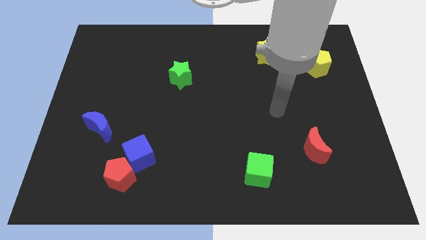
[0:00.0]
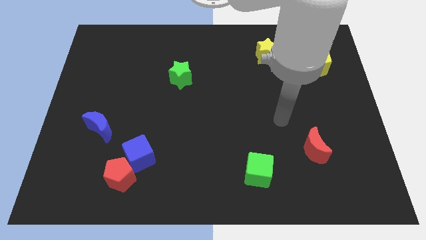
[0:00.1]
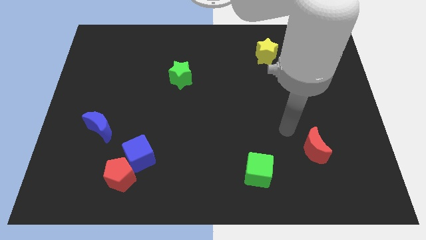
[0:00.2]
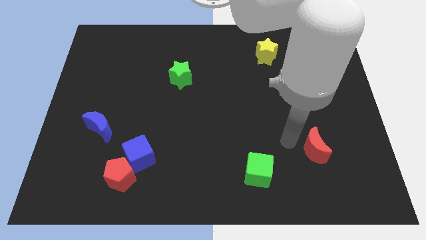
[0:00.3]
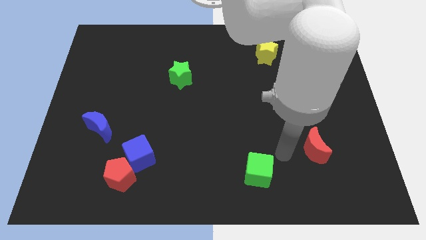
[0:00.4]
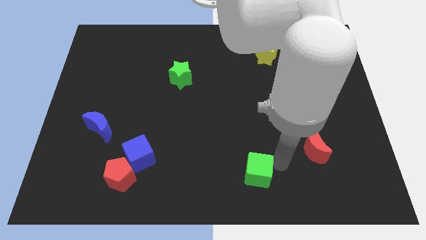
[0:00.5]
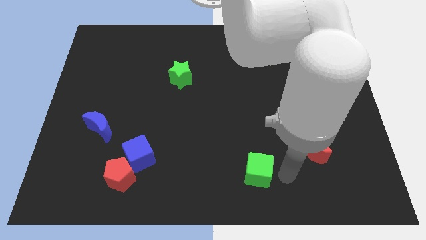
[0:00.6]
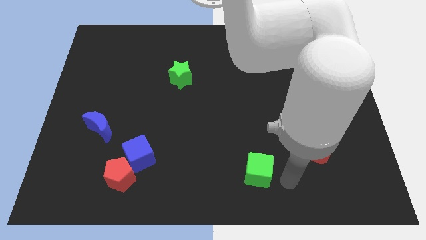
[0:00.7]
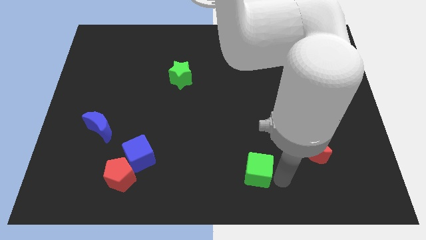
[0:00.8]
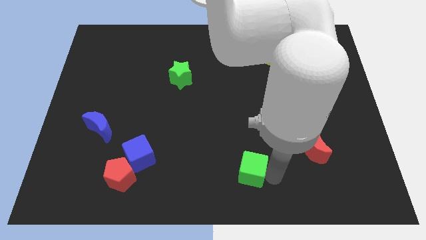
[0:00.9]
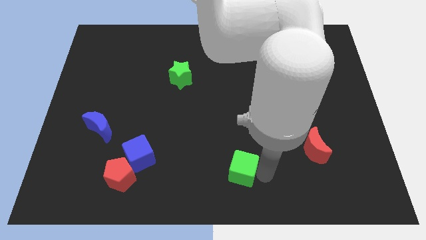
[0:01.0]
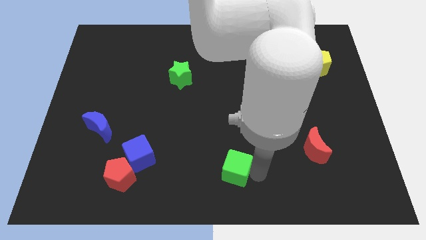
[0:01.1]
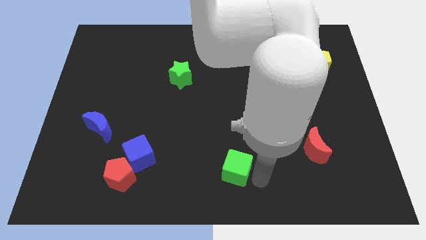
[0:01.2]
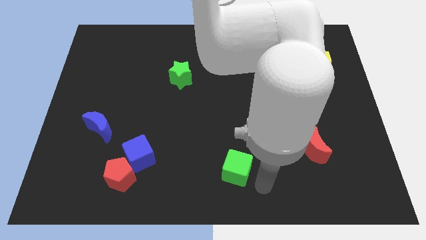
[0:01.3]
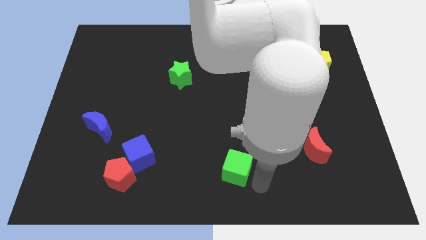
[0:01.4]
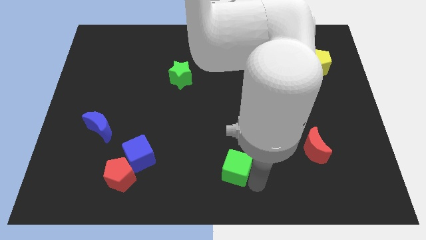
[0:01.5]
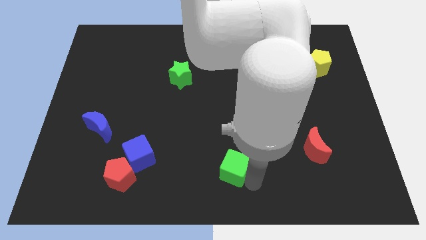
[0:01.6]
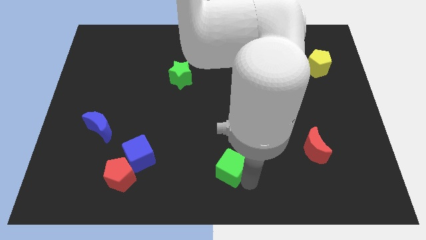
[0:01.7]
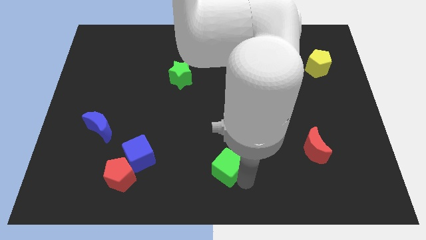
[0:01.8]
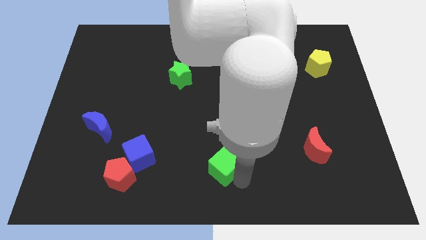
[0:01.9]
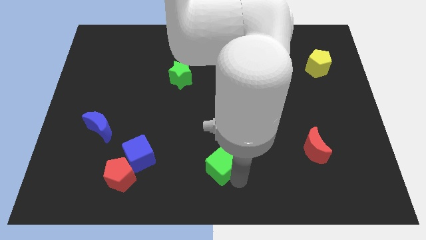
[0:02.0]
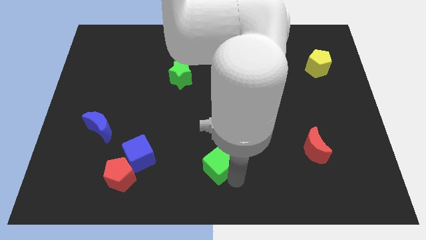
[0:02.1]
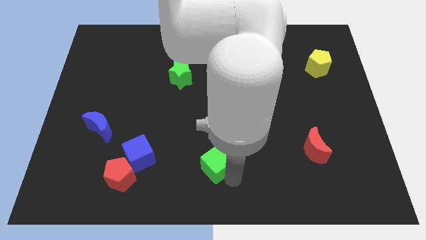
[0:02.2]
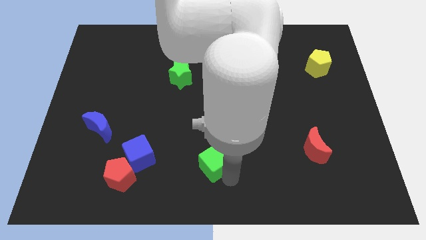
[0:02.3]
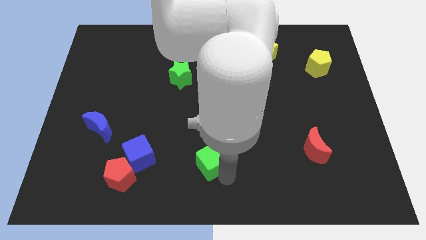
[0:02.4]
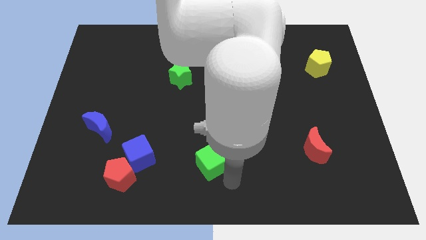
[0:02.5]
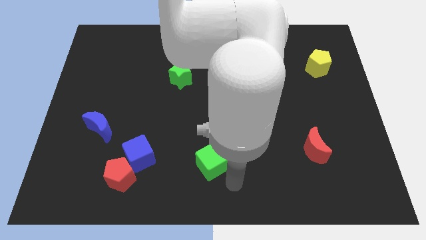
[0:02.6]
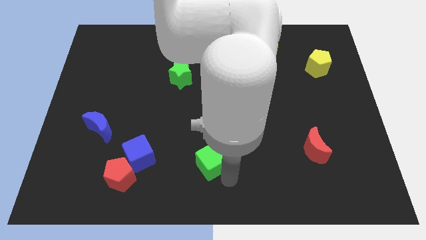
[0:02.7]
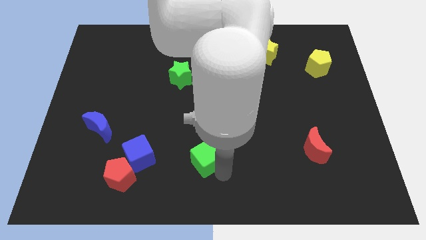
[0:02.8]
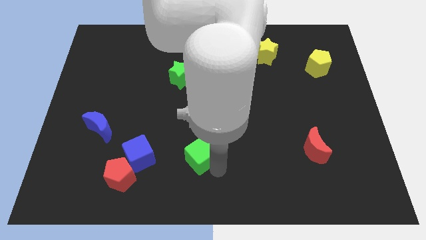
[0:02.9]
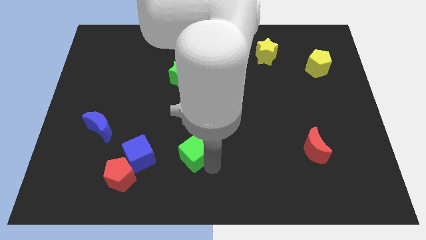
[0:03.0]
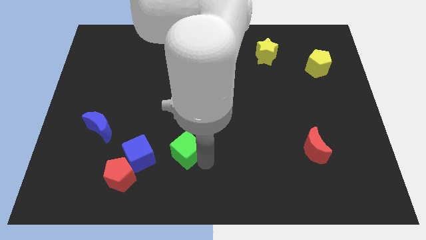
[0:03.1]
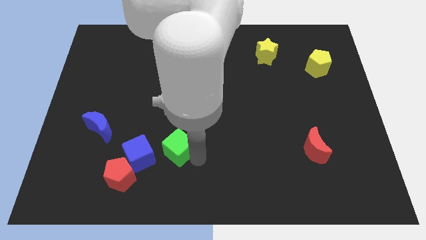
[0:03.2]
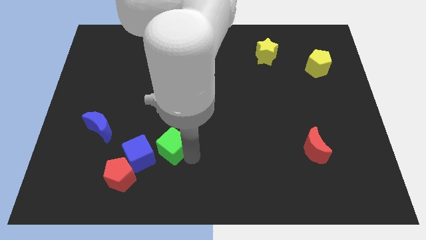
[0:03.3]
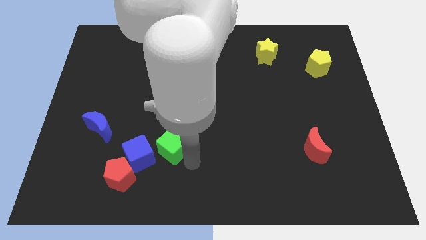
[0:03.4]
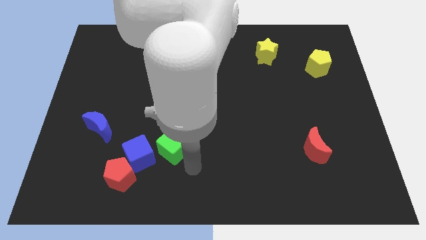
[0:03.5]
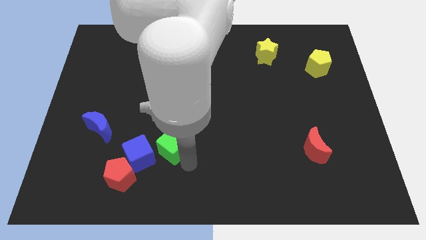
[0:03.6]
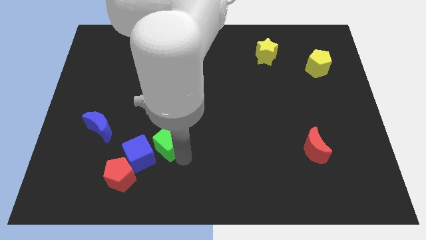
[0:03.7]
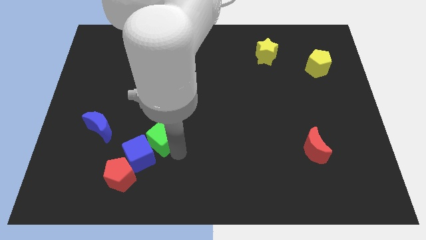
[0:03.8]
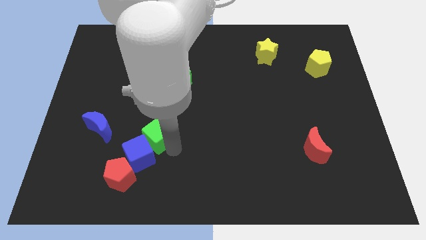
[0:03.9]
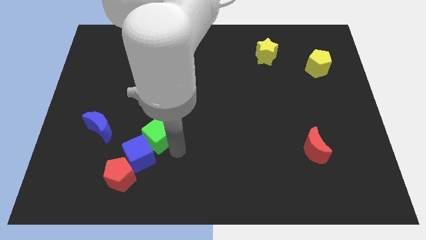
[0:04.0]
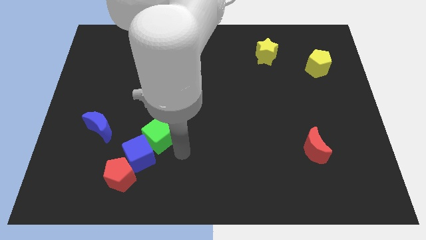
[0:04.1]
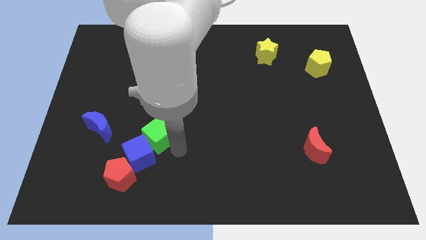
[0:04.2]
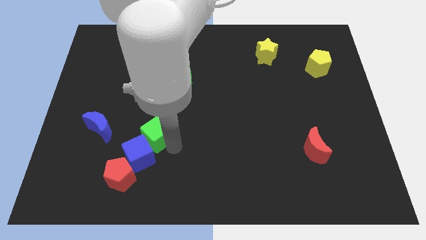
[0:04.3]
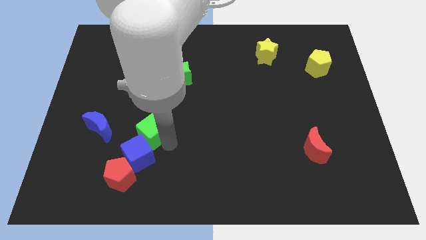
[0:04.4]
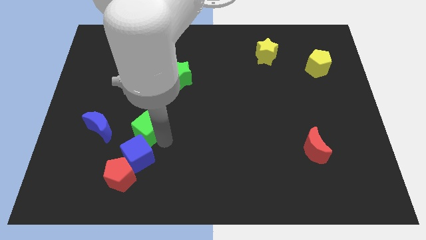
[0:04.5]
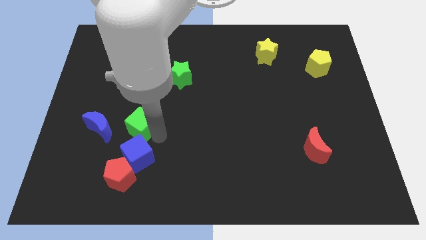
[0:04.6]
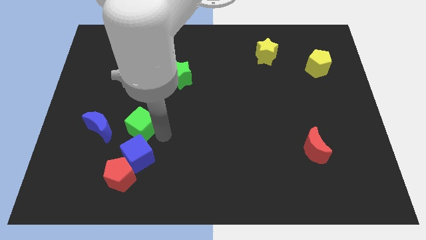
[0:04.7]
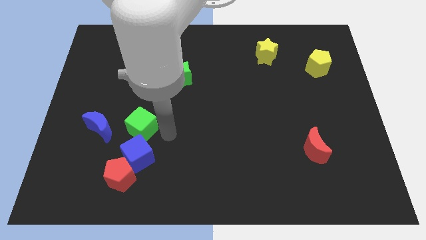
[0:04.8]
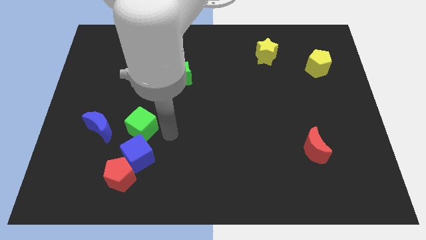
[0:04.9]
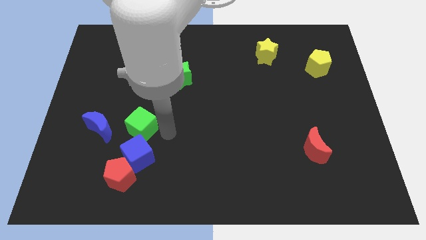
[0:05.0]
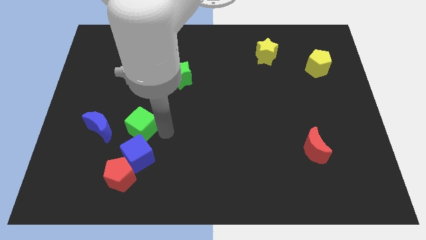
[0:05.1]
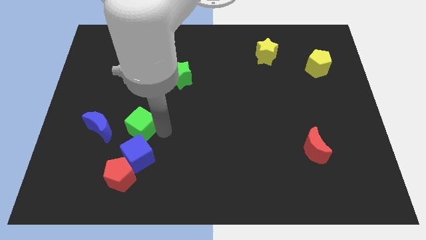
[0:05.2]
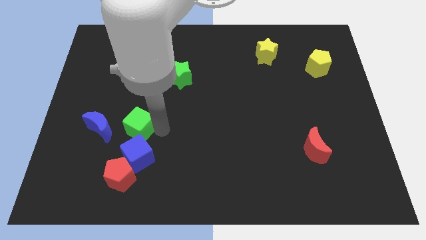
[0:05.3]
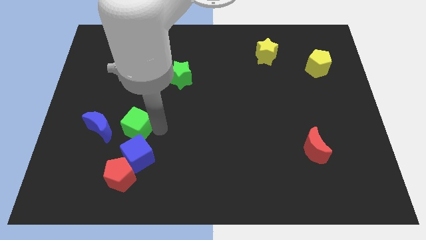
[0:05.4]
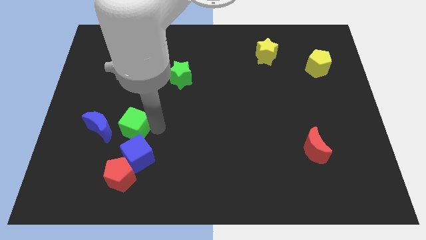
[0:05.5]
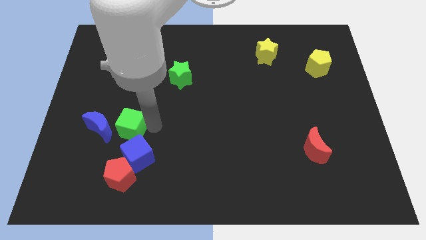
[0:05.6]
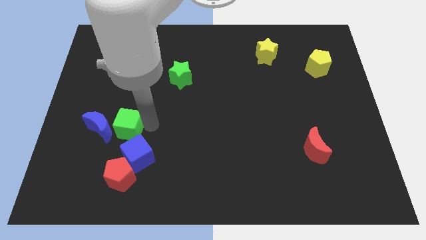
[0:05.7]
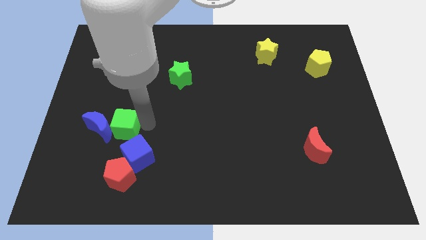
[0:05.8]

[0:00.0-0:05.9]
put the green cube to the blue moon
